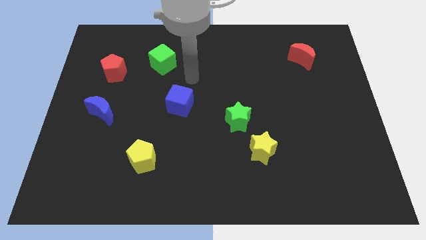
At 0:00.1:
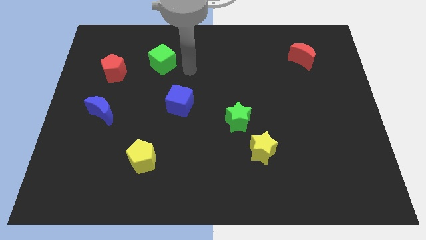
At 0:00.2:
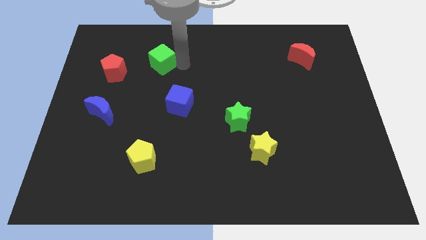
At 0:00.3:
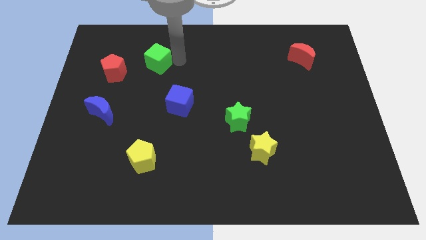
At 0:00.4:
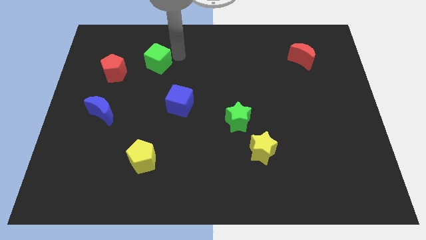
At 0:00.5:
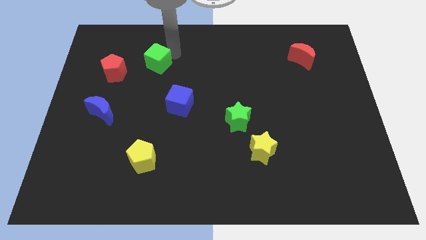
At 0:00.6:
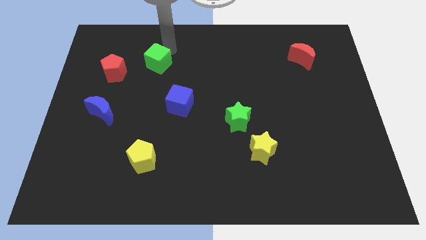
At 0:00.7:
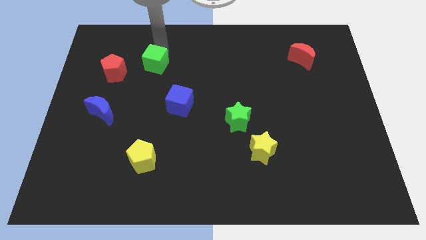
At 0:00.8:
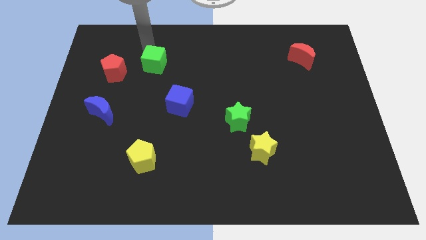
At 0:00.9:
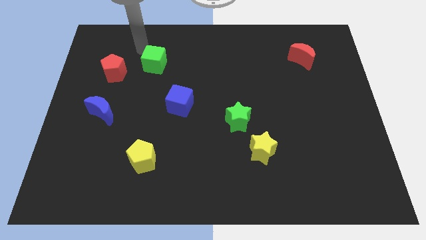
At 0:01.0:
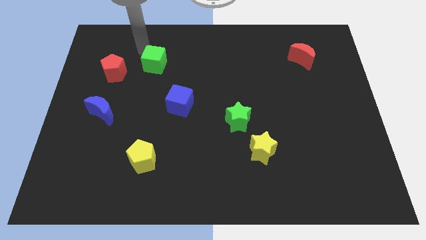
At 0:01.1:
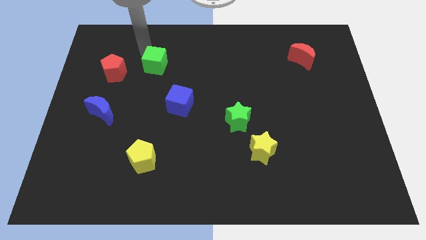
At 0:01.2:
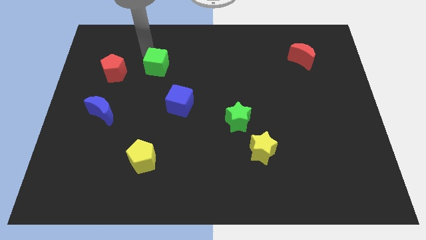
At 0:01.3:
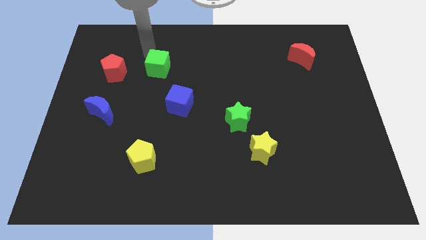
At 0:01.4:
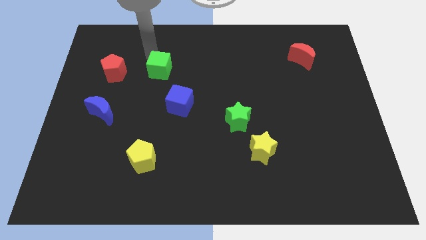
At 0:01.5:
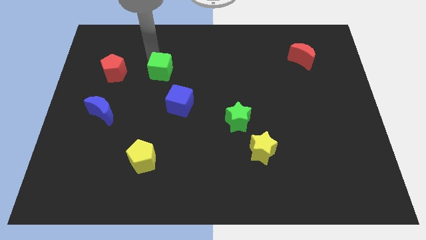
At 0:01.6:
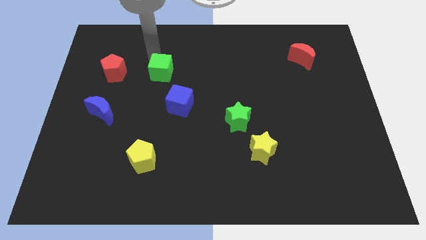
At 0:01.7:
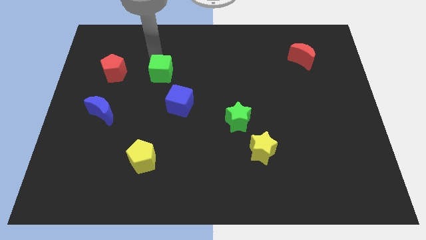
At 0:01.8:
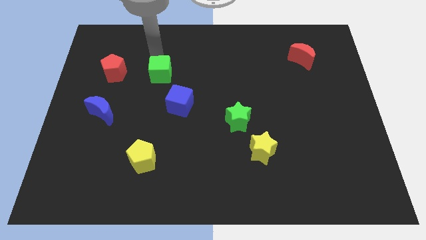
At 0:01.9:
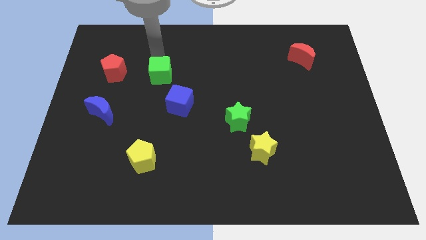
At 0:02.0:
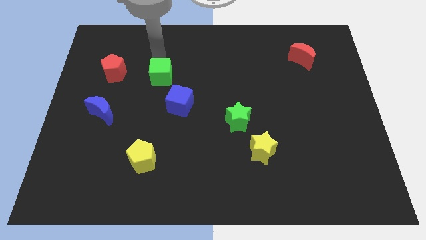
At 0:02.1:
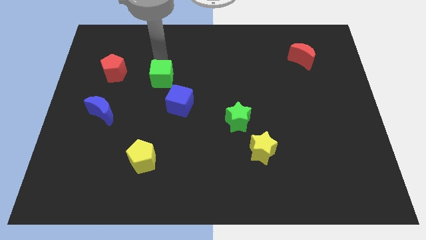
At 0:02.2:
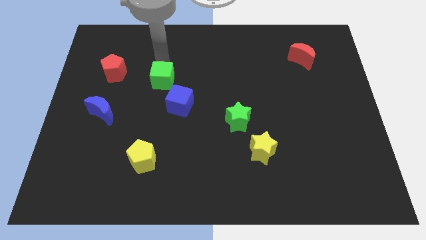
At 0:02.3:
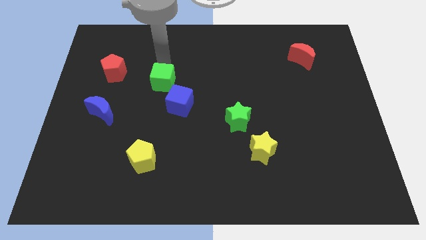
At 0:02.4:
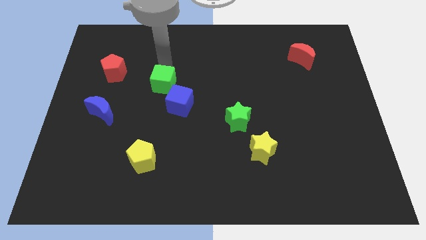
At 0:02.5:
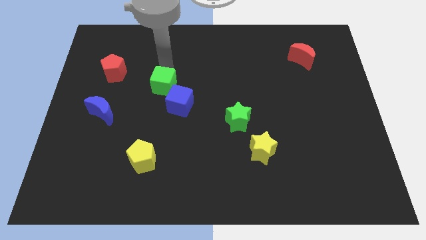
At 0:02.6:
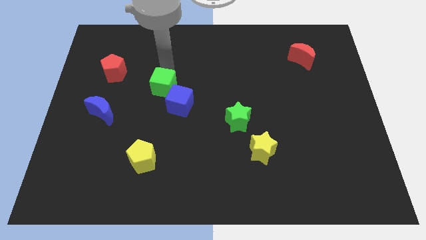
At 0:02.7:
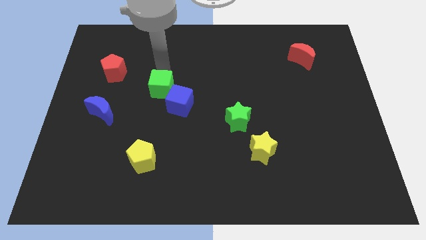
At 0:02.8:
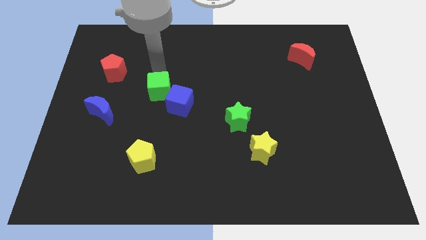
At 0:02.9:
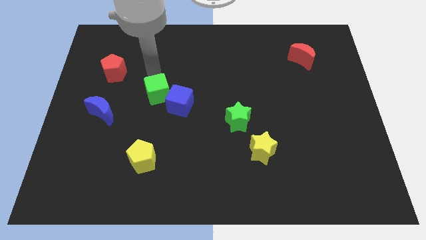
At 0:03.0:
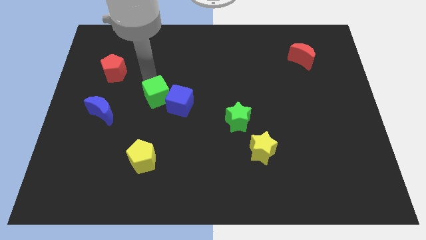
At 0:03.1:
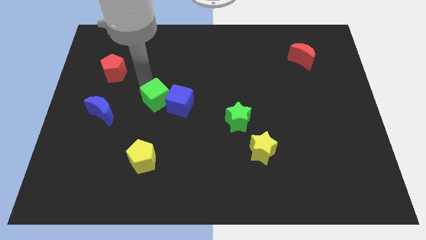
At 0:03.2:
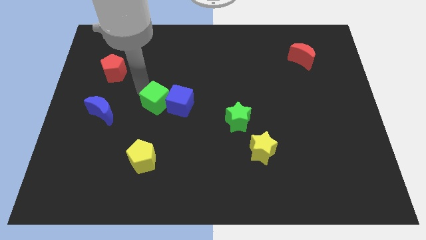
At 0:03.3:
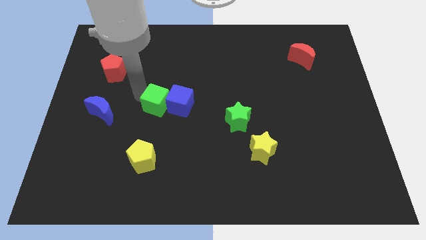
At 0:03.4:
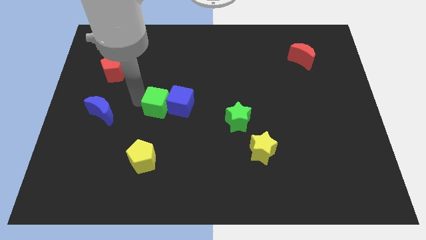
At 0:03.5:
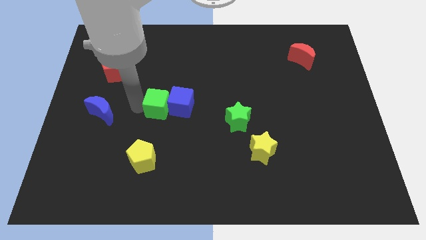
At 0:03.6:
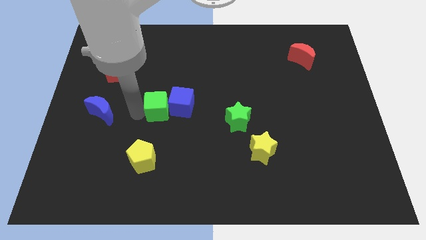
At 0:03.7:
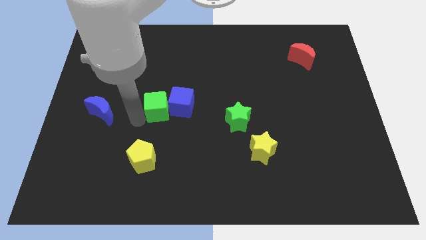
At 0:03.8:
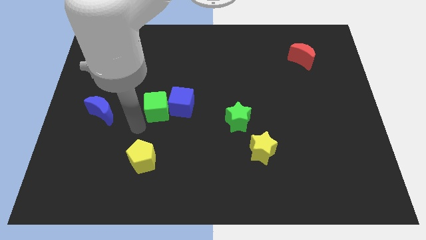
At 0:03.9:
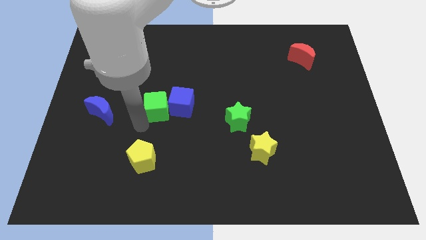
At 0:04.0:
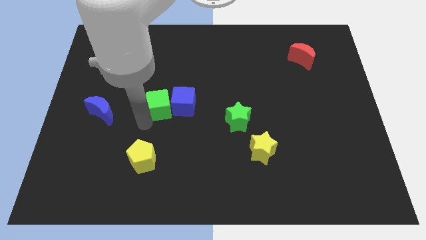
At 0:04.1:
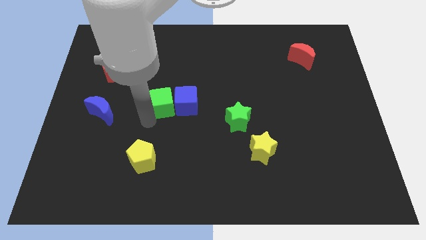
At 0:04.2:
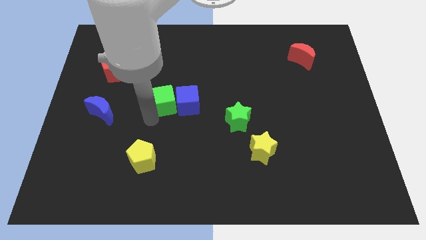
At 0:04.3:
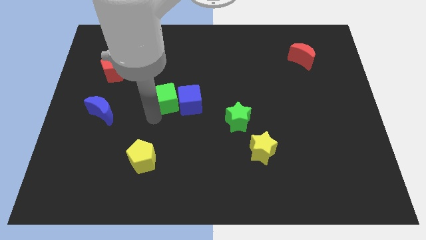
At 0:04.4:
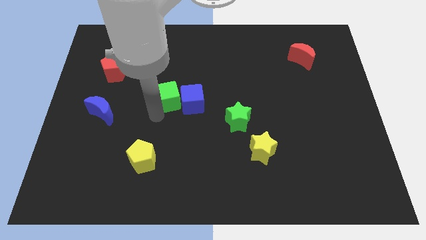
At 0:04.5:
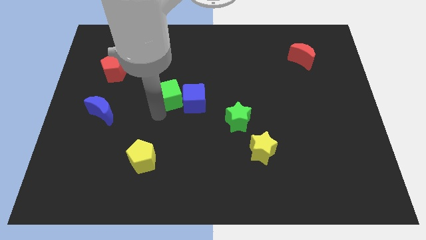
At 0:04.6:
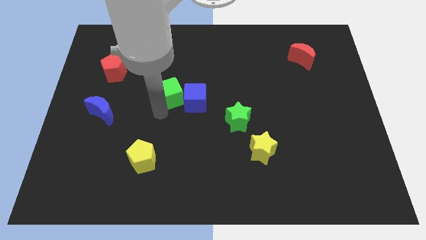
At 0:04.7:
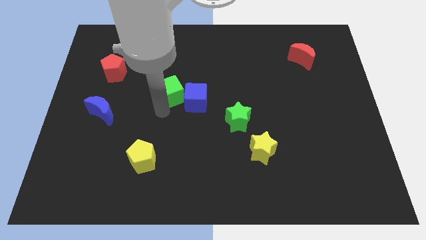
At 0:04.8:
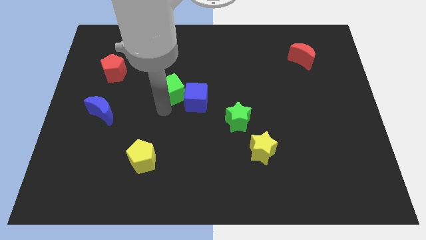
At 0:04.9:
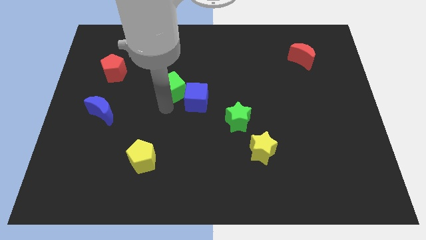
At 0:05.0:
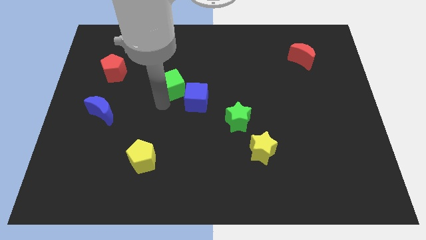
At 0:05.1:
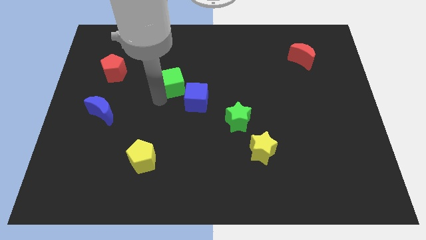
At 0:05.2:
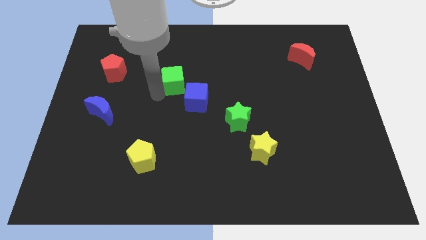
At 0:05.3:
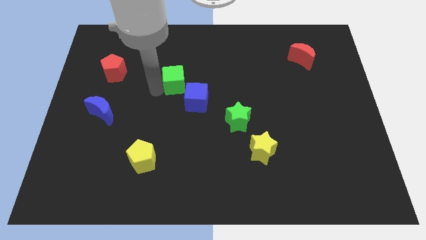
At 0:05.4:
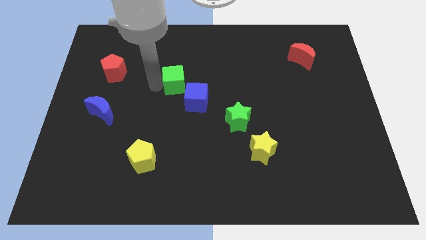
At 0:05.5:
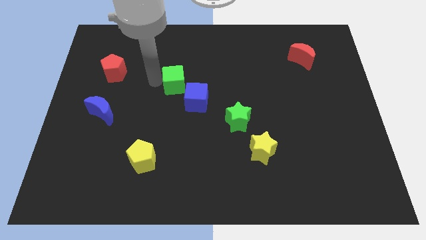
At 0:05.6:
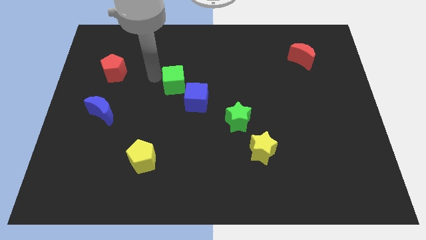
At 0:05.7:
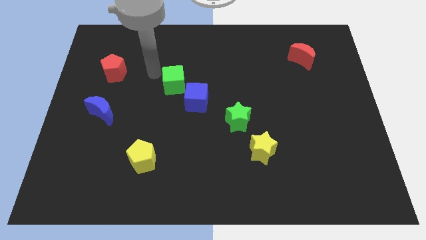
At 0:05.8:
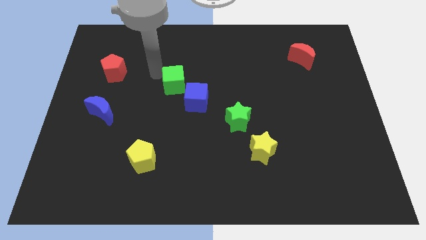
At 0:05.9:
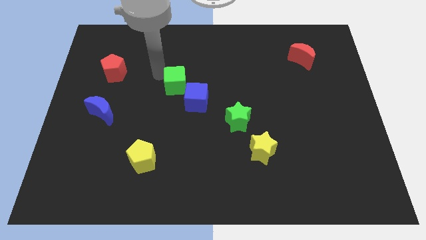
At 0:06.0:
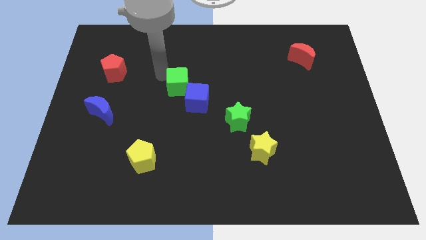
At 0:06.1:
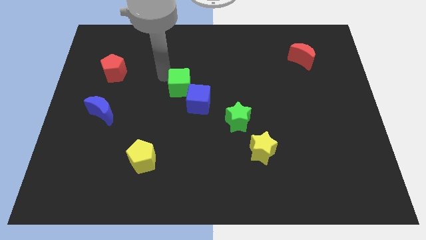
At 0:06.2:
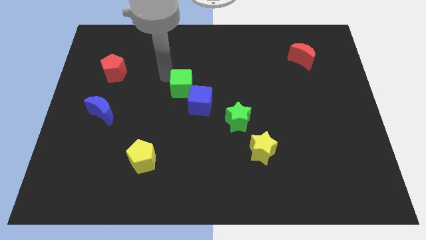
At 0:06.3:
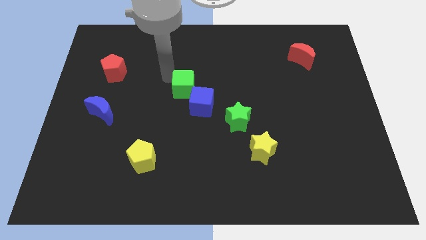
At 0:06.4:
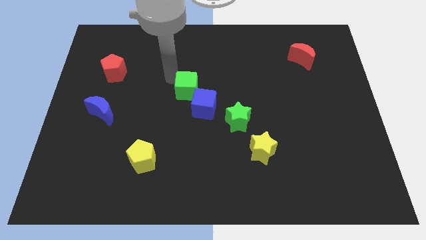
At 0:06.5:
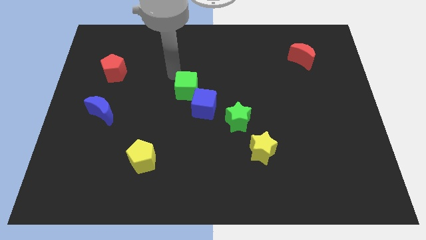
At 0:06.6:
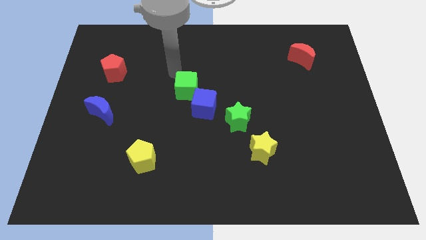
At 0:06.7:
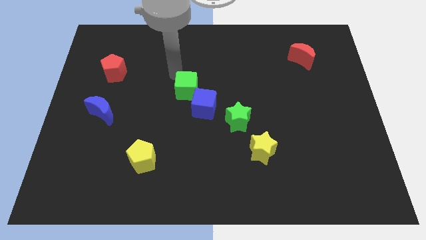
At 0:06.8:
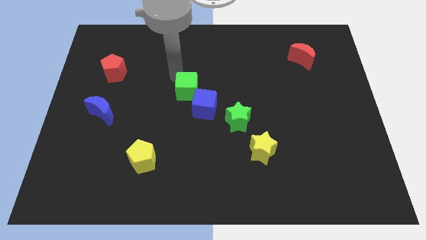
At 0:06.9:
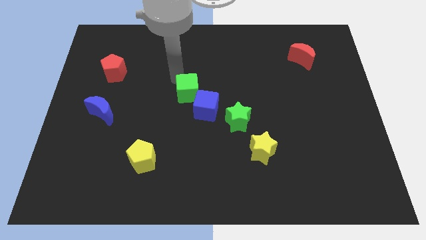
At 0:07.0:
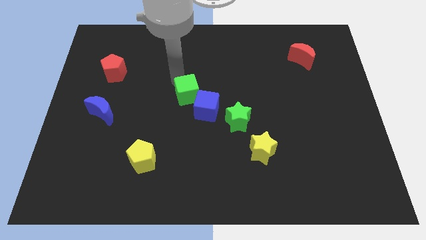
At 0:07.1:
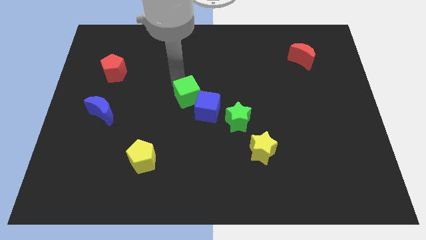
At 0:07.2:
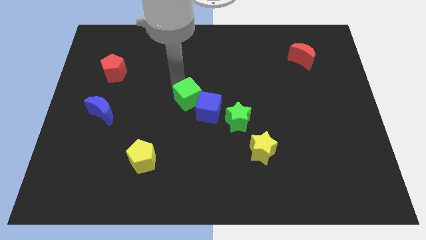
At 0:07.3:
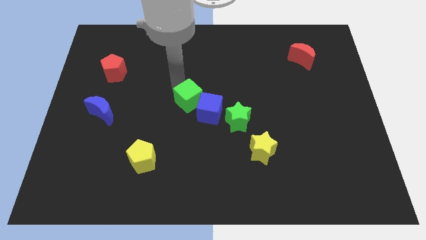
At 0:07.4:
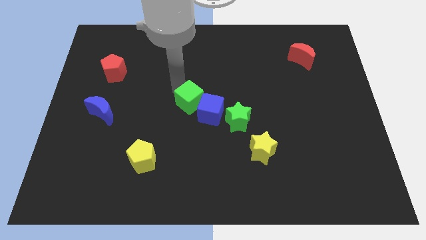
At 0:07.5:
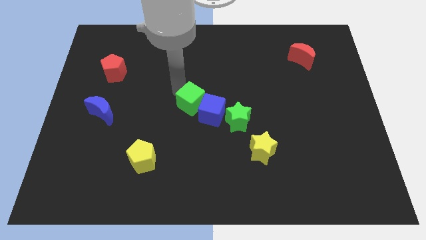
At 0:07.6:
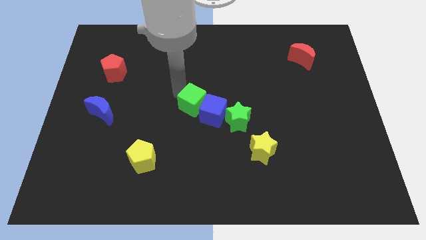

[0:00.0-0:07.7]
push the green cube to the left of the green star

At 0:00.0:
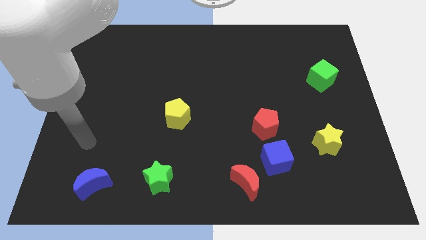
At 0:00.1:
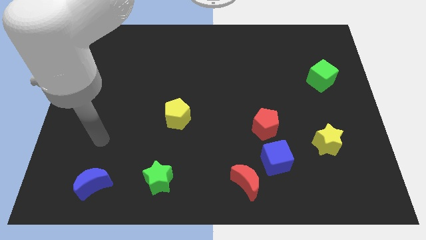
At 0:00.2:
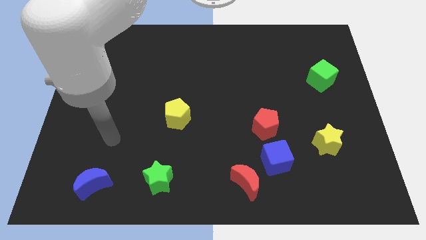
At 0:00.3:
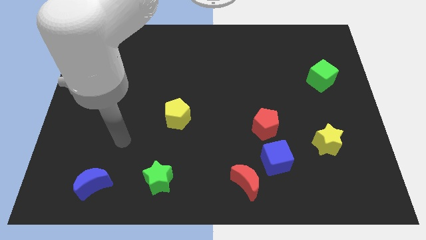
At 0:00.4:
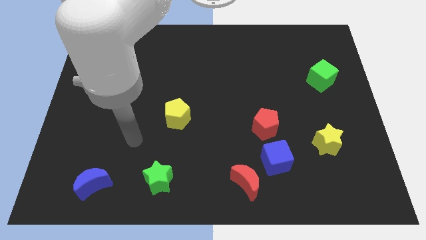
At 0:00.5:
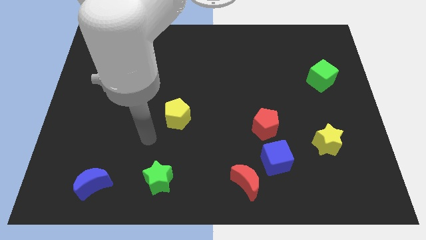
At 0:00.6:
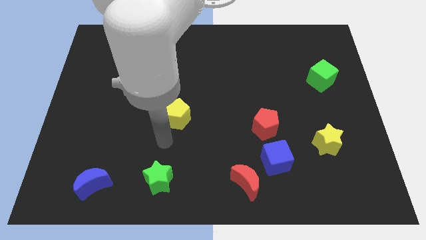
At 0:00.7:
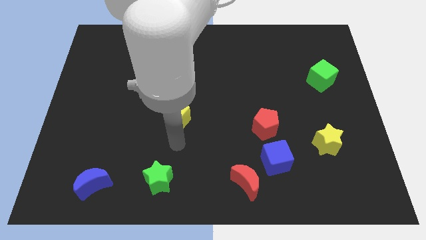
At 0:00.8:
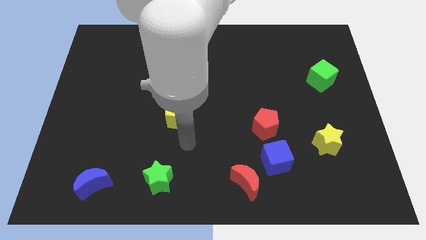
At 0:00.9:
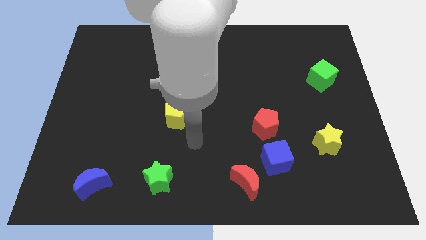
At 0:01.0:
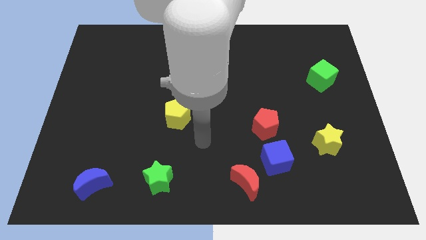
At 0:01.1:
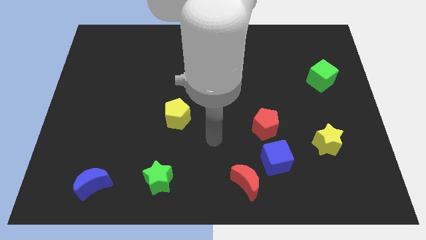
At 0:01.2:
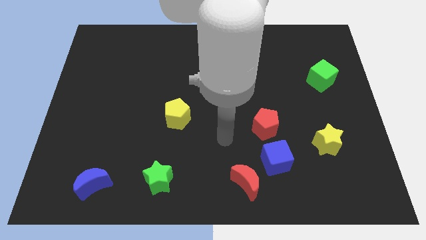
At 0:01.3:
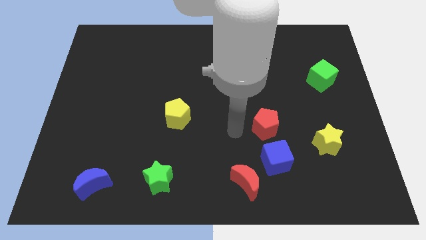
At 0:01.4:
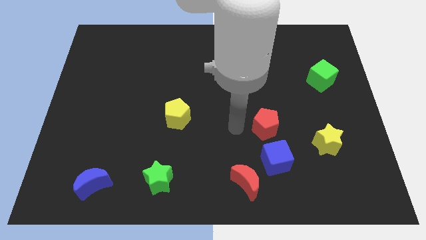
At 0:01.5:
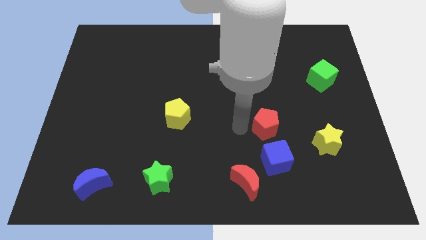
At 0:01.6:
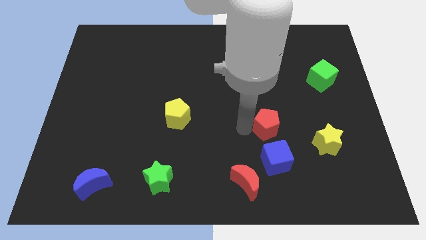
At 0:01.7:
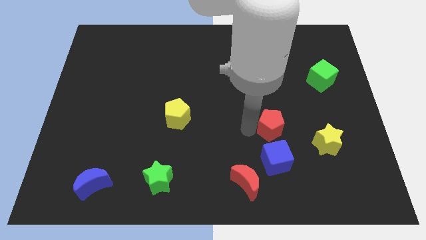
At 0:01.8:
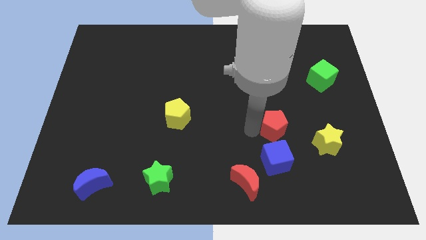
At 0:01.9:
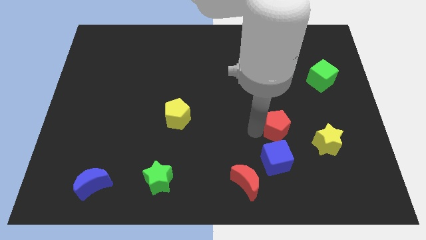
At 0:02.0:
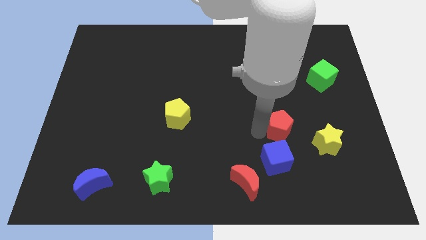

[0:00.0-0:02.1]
put the red pentagon diagonally up and to the left of the yellow star
